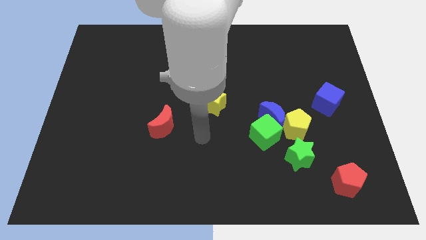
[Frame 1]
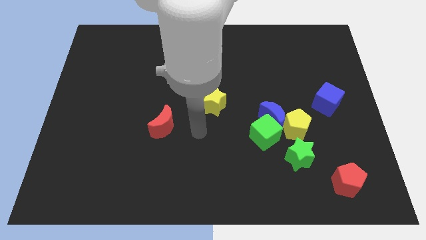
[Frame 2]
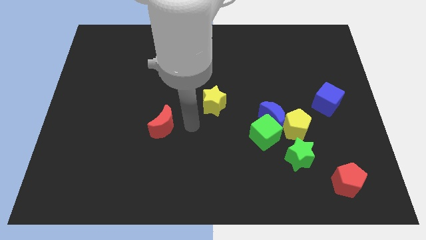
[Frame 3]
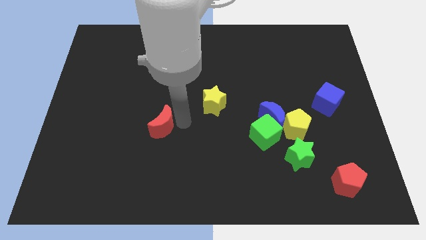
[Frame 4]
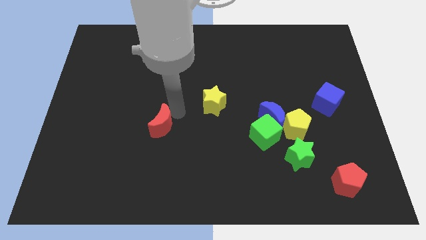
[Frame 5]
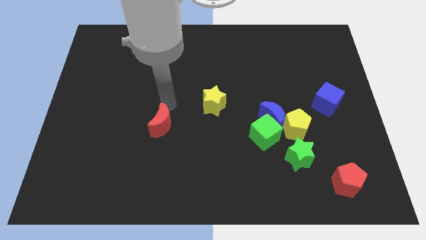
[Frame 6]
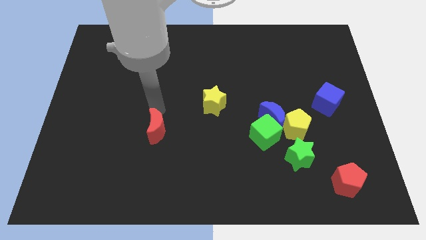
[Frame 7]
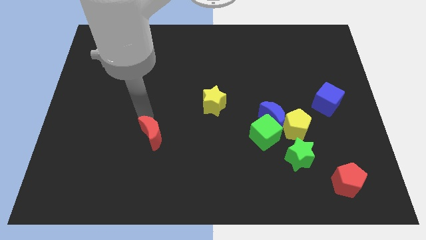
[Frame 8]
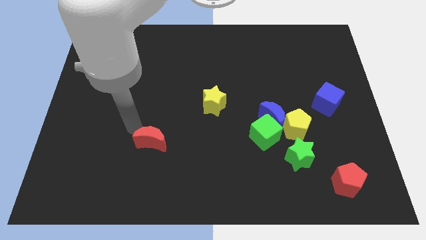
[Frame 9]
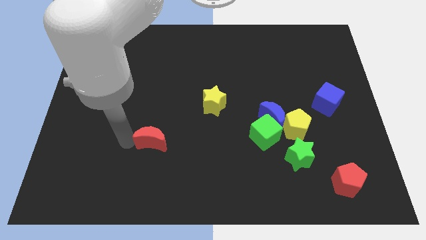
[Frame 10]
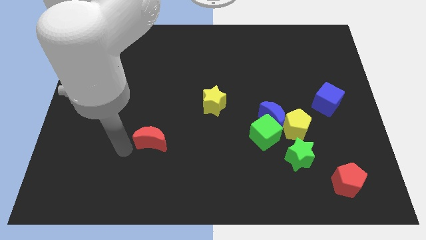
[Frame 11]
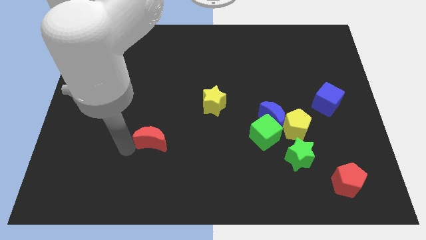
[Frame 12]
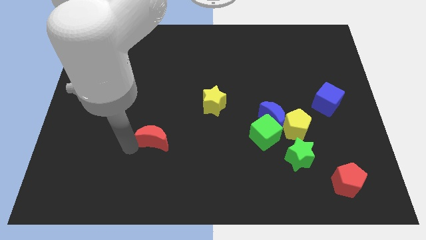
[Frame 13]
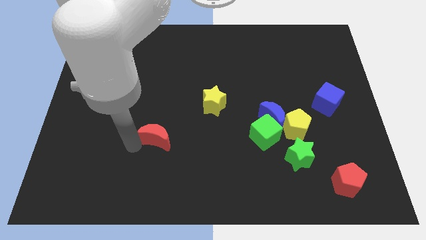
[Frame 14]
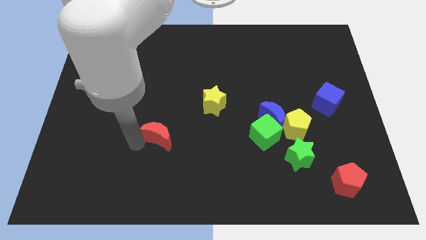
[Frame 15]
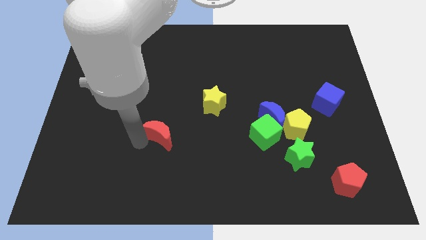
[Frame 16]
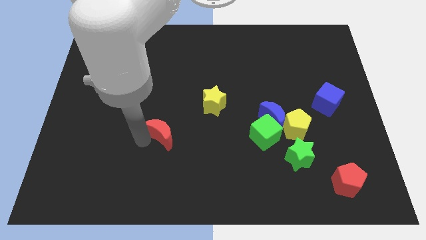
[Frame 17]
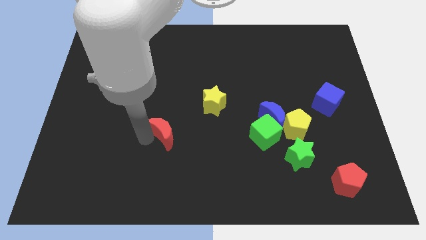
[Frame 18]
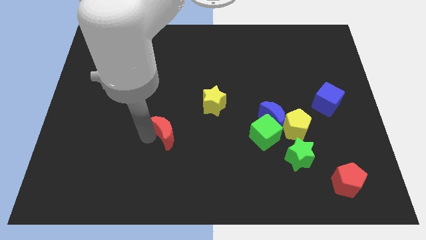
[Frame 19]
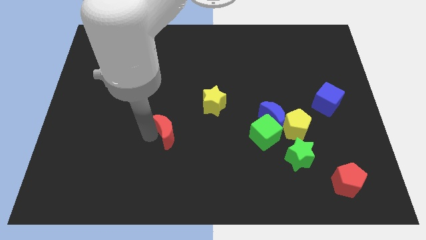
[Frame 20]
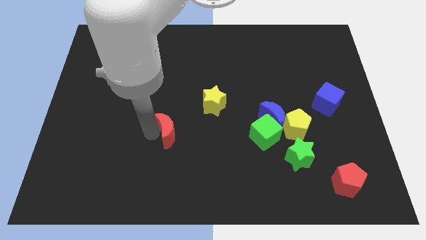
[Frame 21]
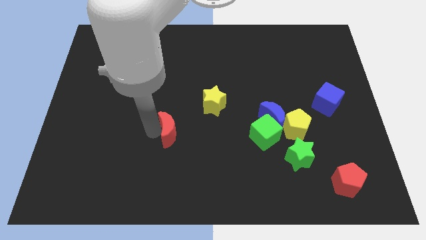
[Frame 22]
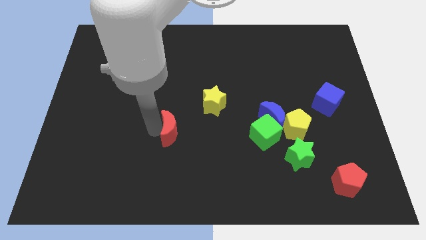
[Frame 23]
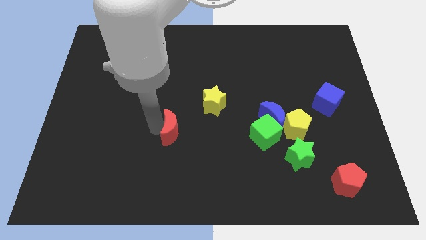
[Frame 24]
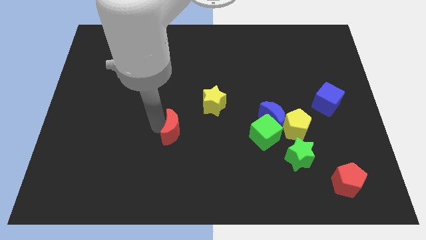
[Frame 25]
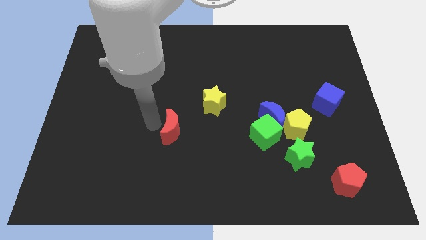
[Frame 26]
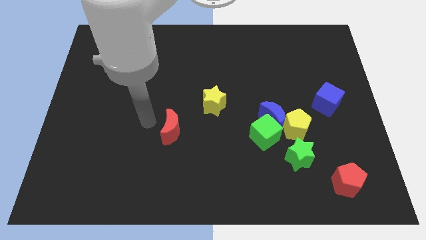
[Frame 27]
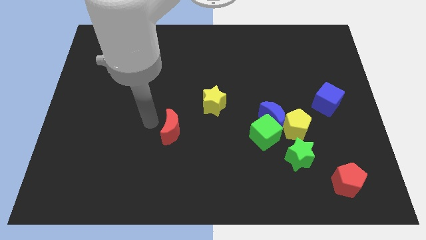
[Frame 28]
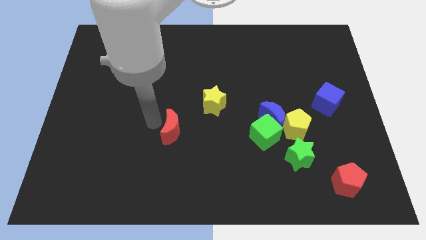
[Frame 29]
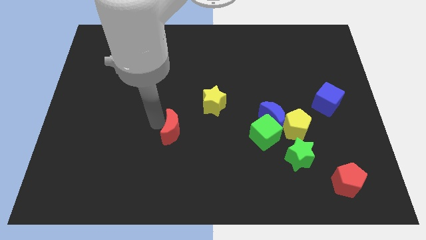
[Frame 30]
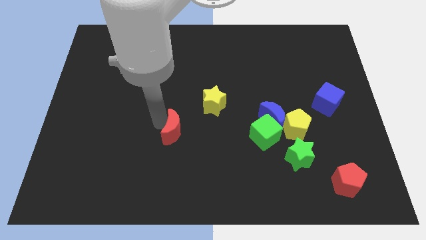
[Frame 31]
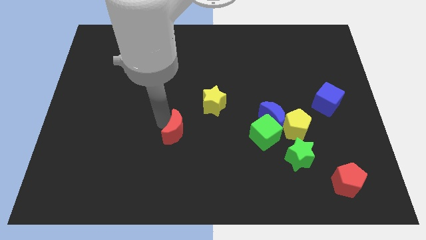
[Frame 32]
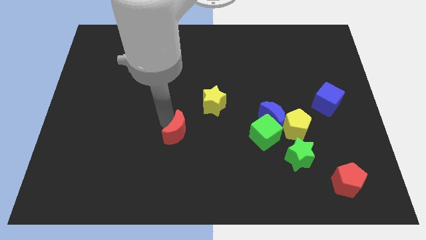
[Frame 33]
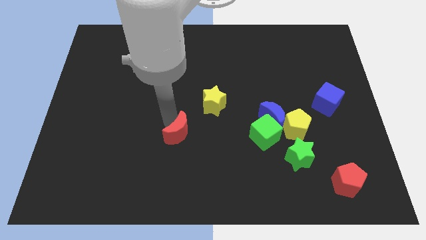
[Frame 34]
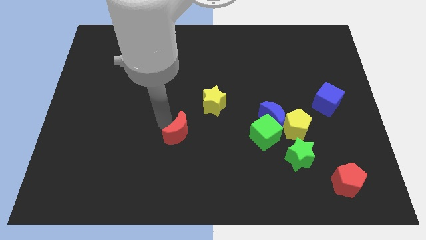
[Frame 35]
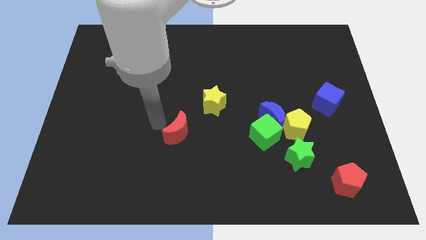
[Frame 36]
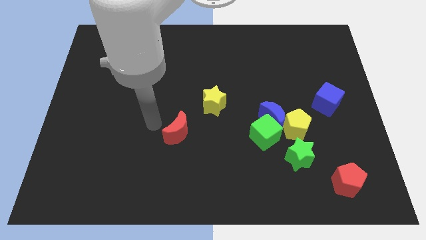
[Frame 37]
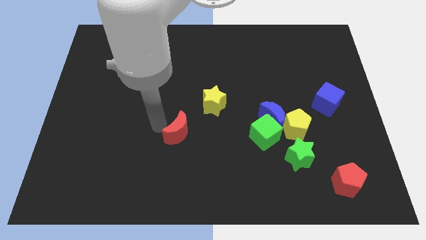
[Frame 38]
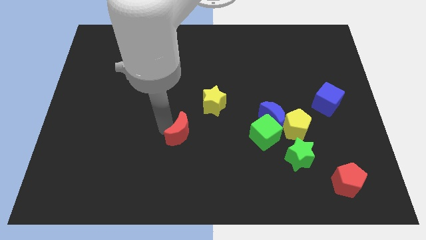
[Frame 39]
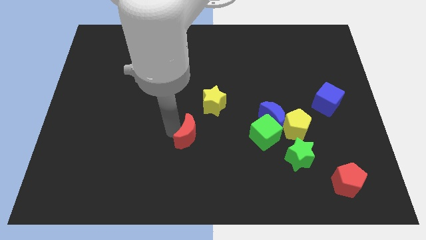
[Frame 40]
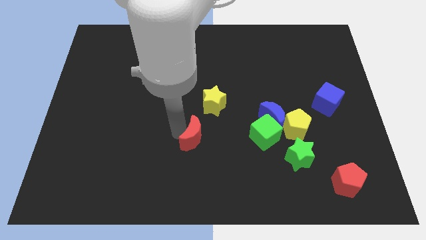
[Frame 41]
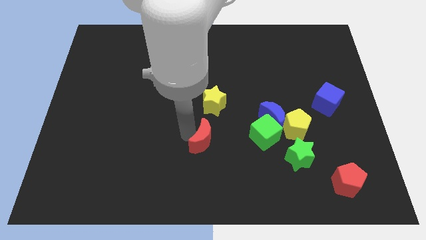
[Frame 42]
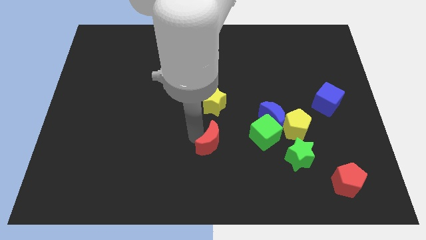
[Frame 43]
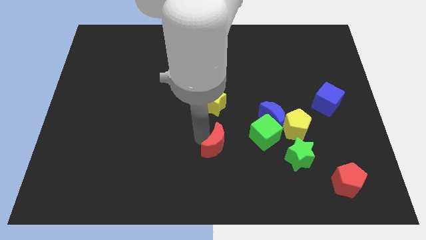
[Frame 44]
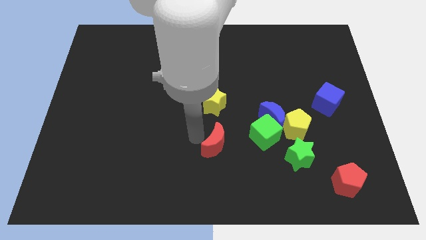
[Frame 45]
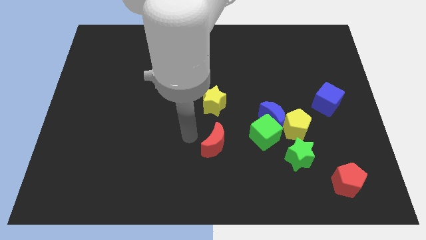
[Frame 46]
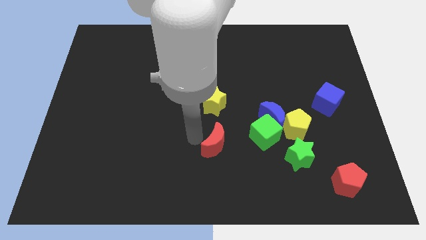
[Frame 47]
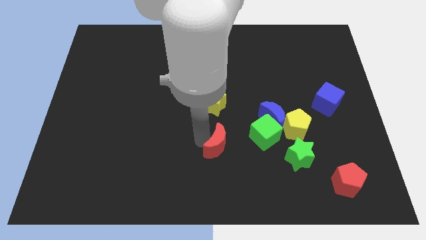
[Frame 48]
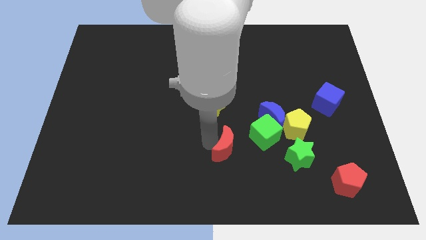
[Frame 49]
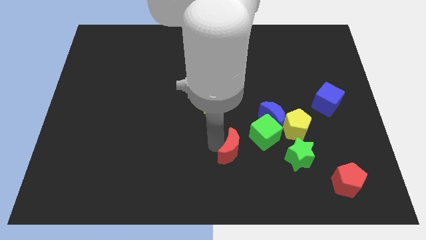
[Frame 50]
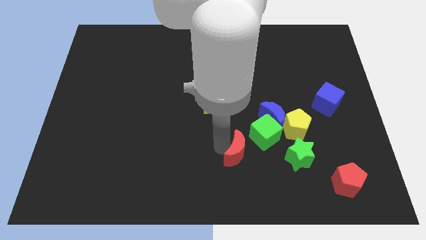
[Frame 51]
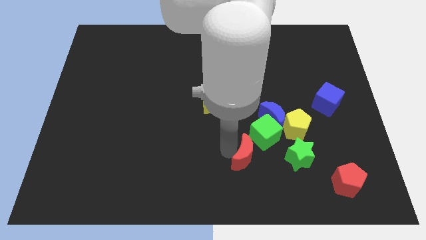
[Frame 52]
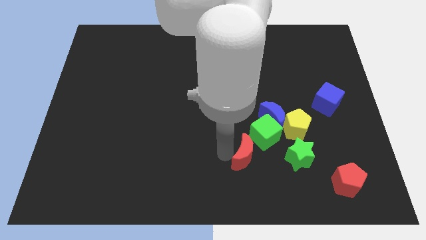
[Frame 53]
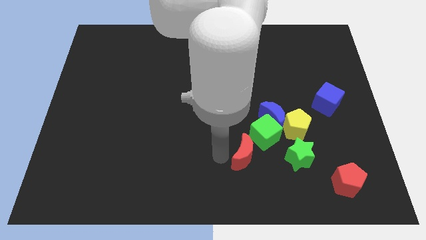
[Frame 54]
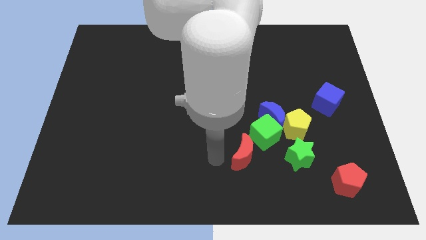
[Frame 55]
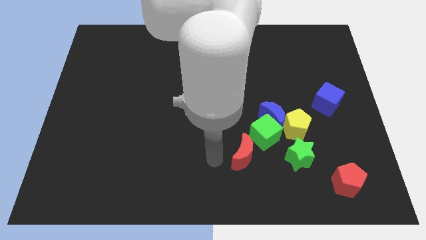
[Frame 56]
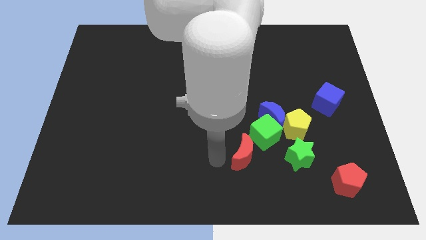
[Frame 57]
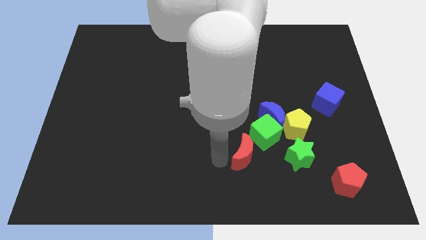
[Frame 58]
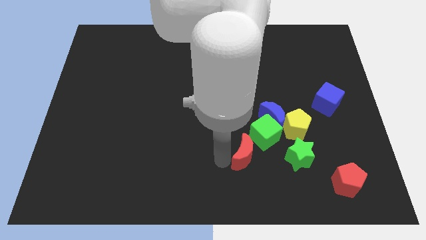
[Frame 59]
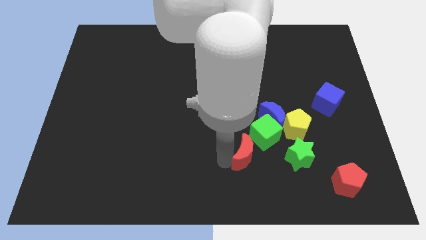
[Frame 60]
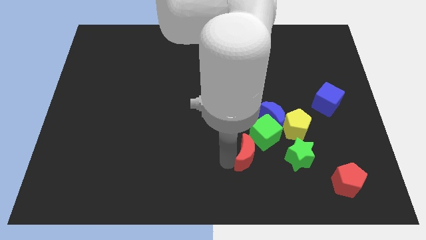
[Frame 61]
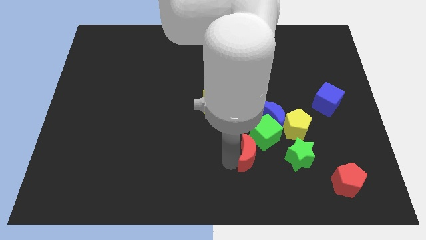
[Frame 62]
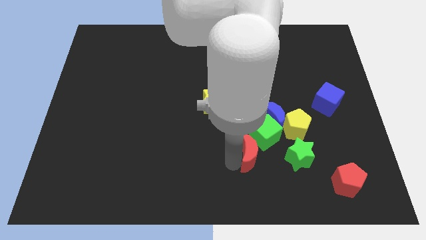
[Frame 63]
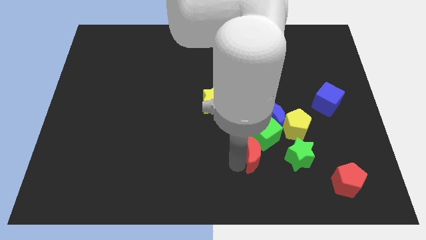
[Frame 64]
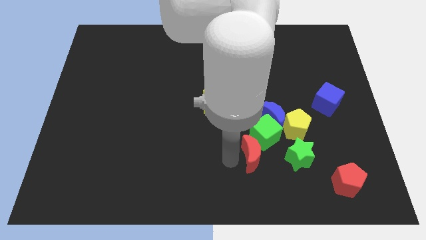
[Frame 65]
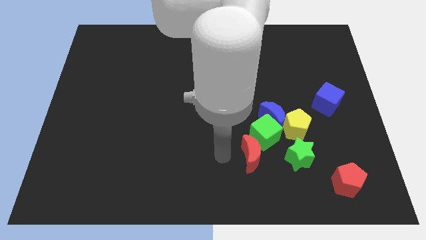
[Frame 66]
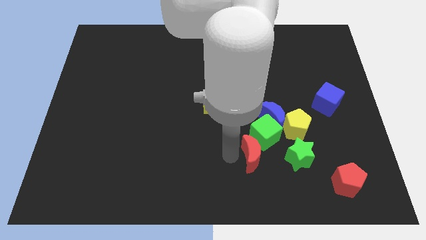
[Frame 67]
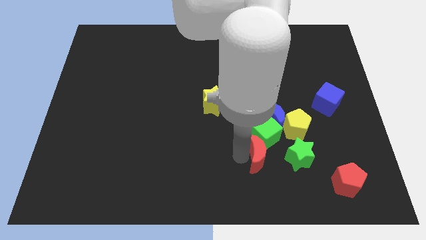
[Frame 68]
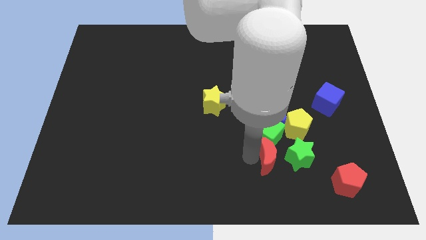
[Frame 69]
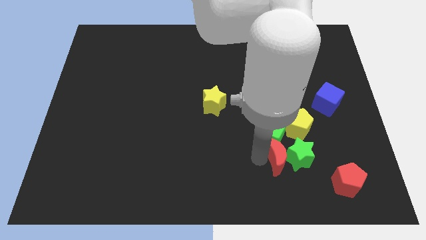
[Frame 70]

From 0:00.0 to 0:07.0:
push the red moon towards the green star

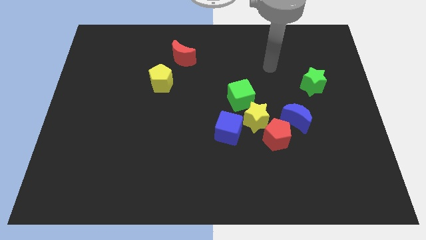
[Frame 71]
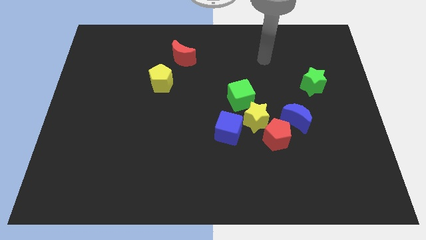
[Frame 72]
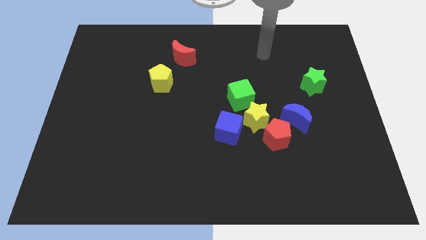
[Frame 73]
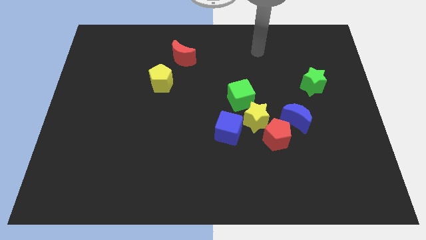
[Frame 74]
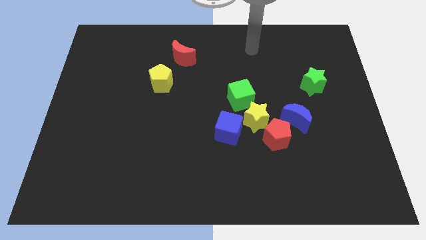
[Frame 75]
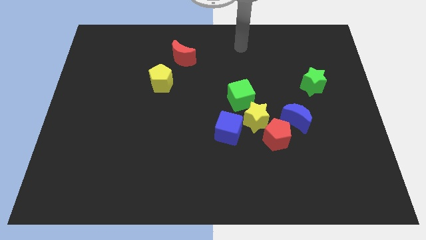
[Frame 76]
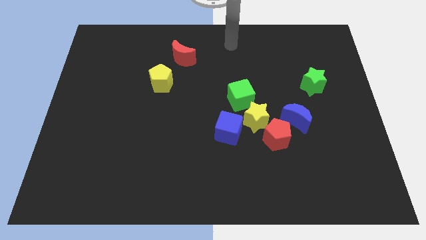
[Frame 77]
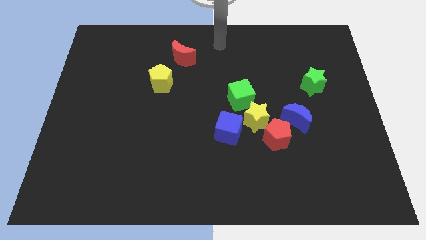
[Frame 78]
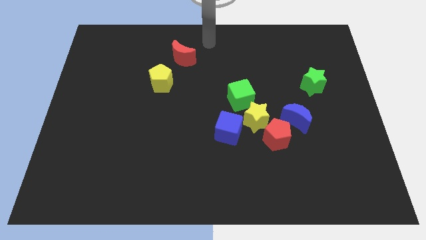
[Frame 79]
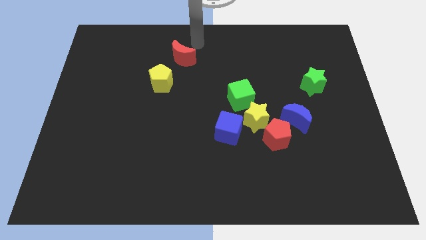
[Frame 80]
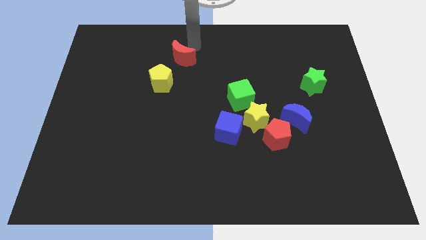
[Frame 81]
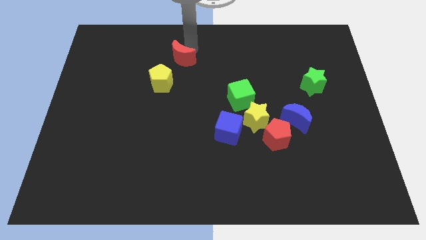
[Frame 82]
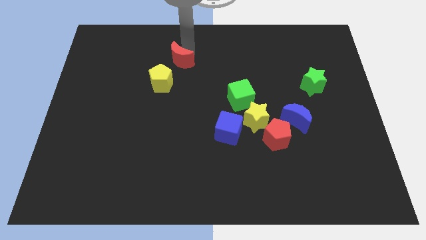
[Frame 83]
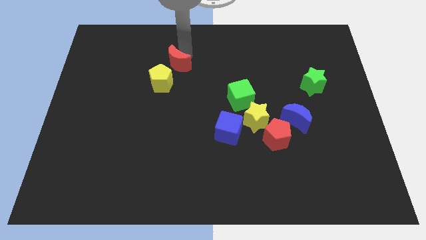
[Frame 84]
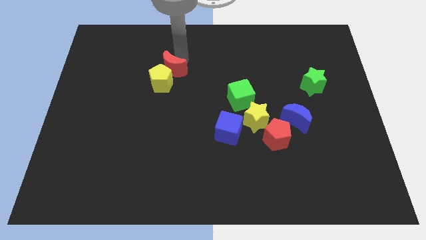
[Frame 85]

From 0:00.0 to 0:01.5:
slide the red moon next to the yellow pentagon
